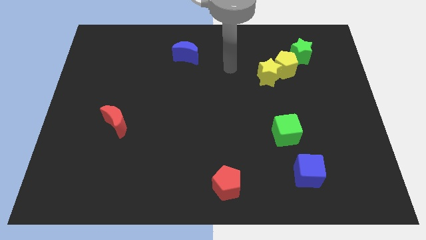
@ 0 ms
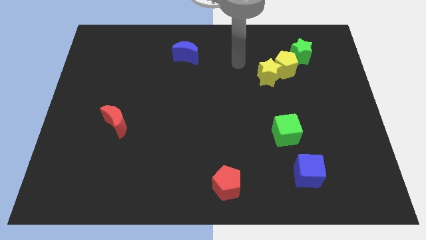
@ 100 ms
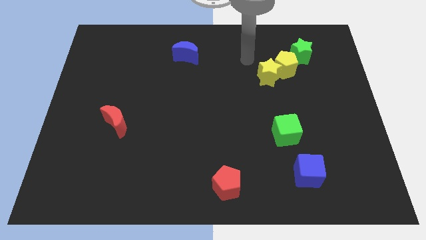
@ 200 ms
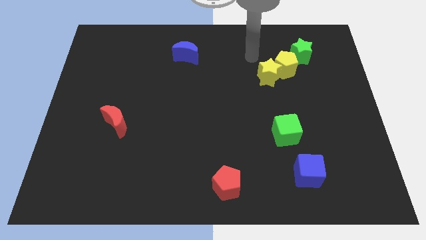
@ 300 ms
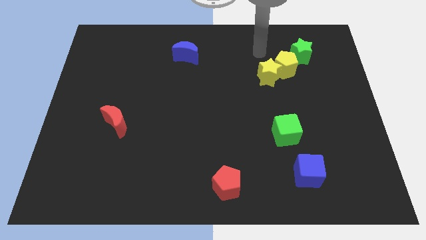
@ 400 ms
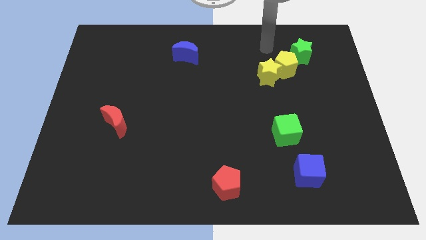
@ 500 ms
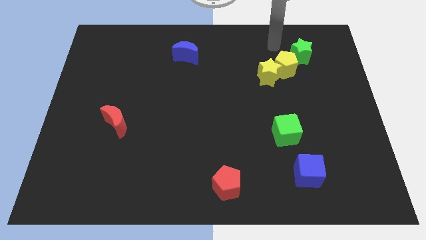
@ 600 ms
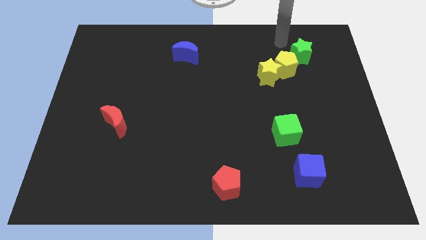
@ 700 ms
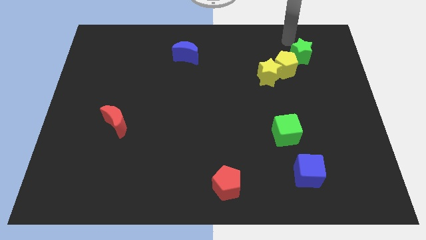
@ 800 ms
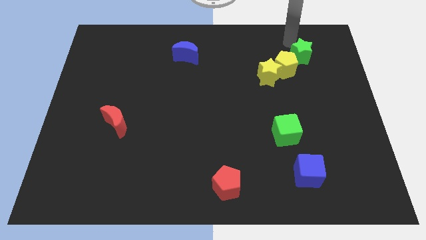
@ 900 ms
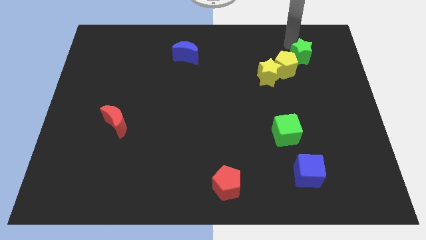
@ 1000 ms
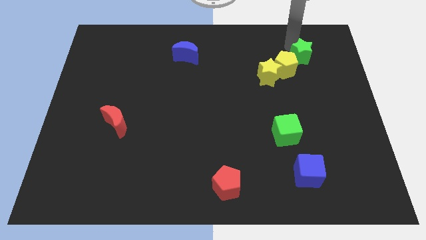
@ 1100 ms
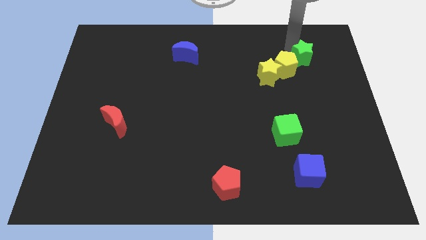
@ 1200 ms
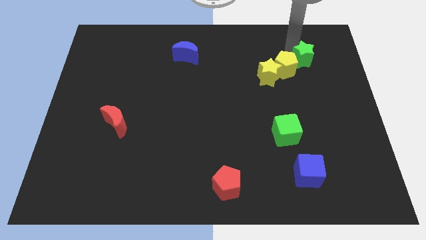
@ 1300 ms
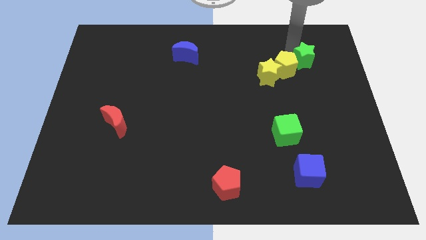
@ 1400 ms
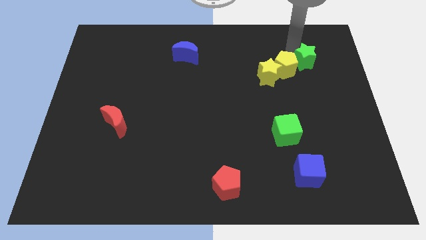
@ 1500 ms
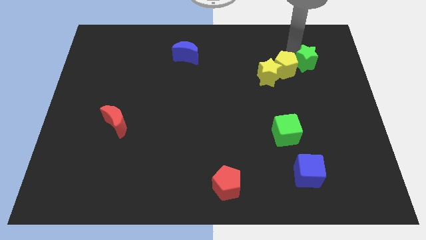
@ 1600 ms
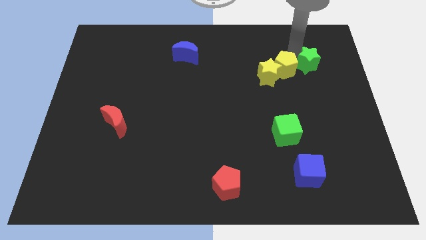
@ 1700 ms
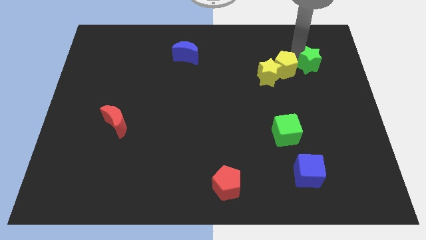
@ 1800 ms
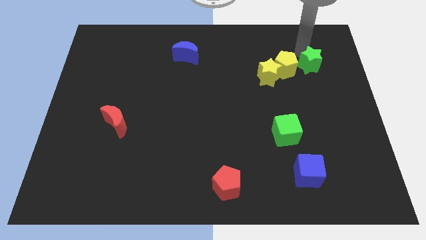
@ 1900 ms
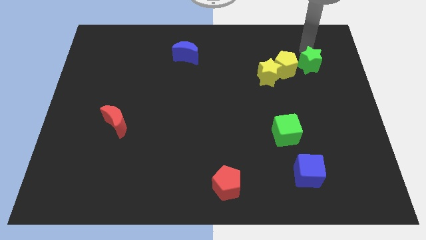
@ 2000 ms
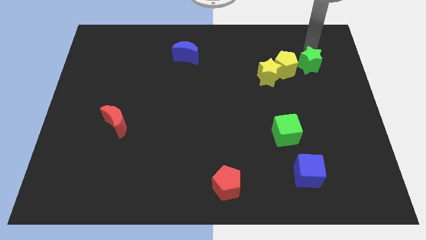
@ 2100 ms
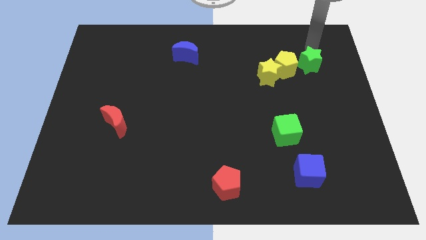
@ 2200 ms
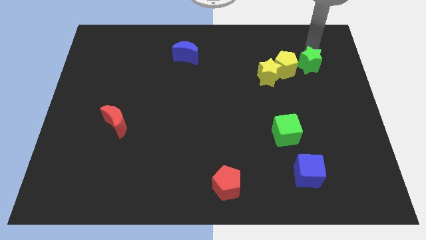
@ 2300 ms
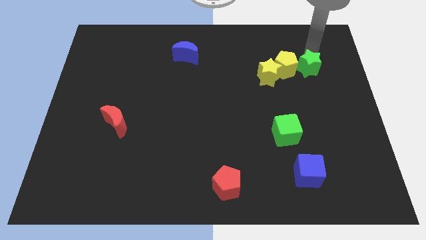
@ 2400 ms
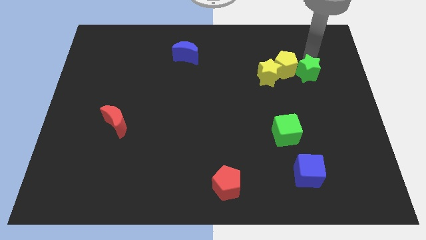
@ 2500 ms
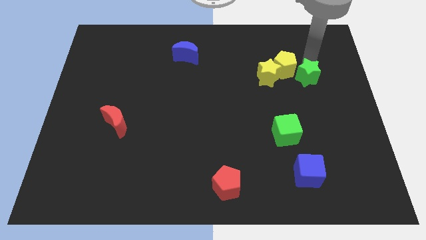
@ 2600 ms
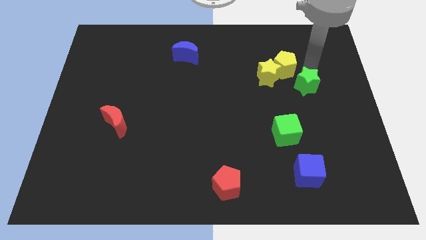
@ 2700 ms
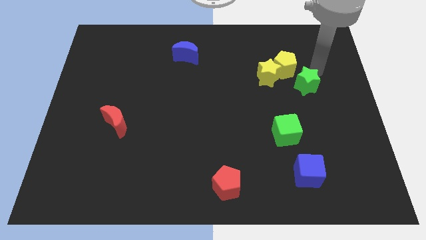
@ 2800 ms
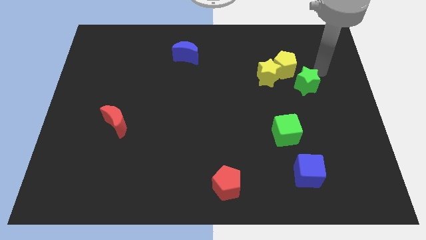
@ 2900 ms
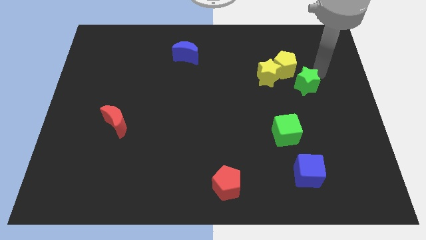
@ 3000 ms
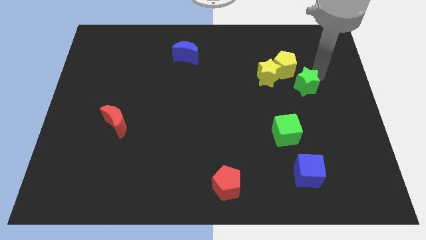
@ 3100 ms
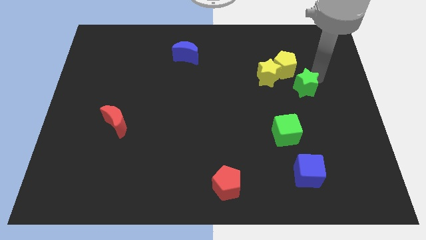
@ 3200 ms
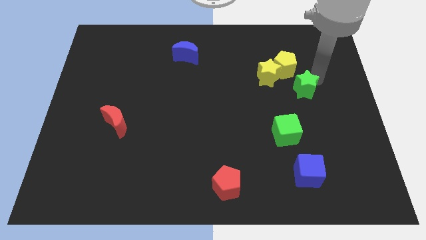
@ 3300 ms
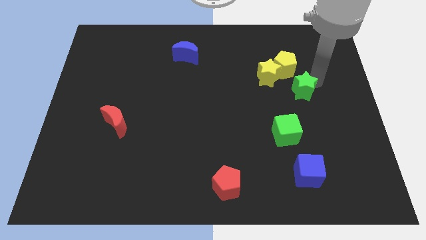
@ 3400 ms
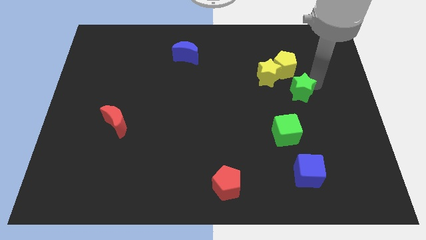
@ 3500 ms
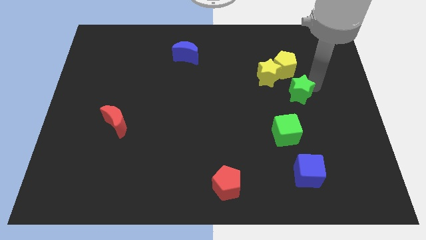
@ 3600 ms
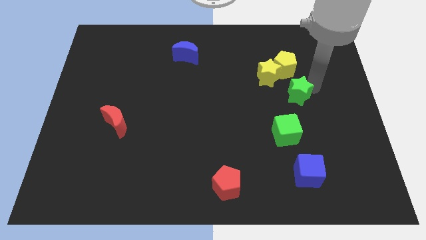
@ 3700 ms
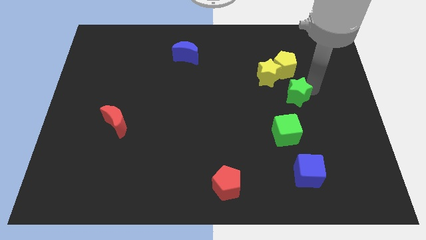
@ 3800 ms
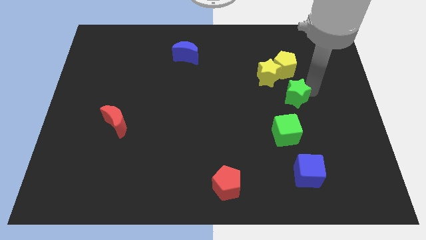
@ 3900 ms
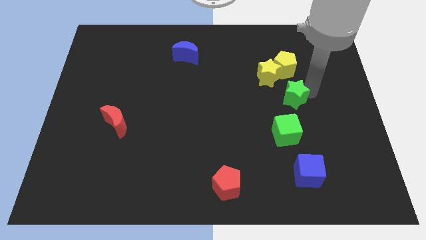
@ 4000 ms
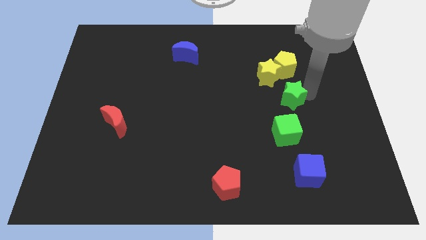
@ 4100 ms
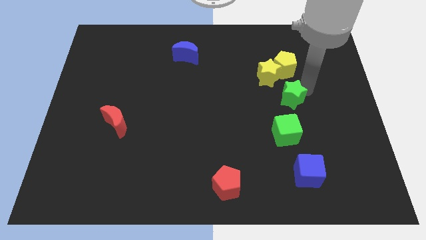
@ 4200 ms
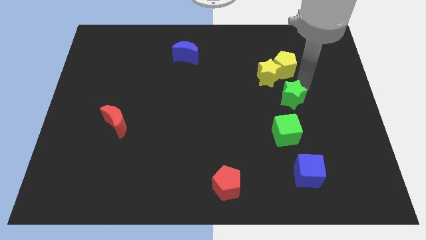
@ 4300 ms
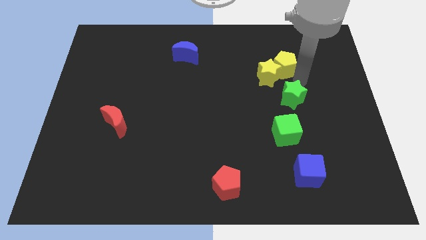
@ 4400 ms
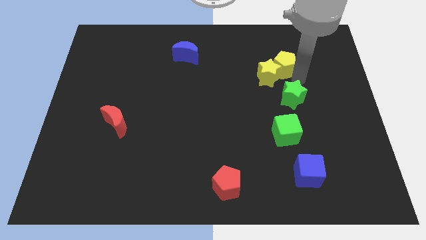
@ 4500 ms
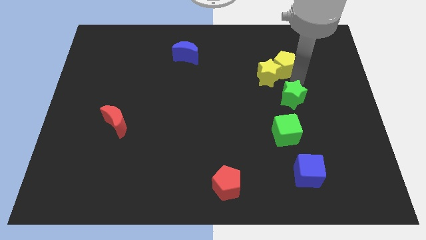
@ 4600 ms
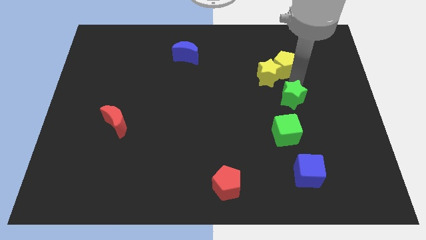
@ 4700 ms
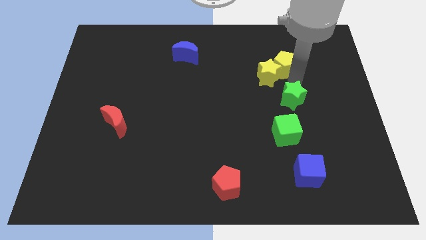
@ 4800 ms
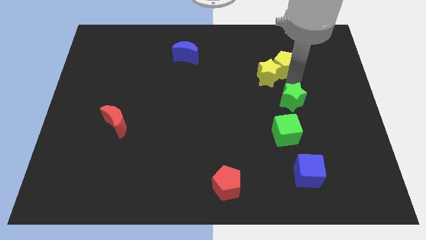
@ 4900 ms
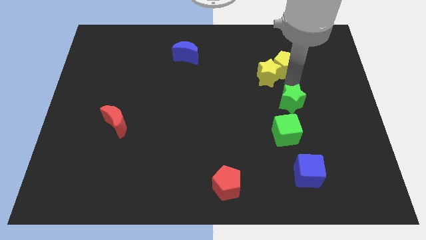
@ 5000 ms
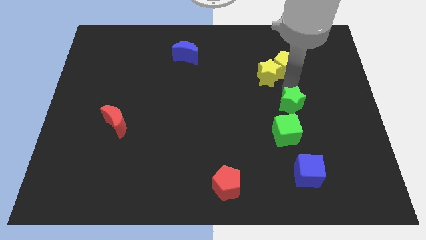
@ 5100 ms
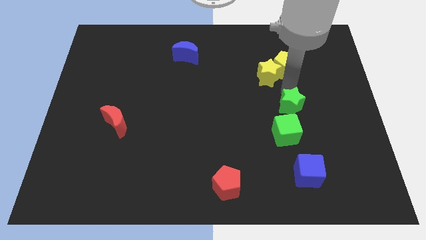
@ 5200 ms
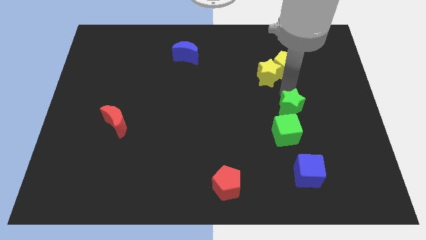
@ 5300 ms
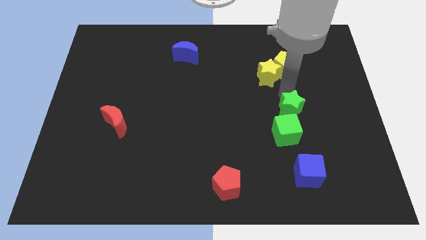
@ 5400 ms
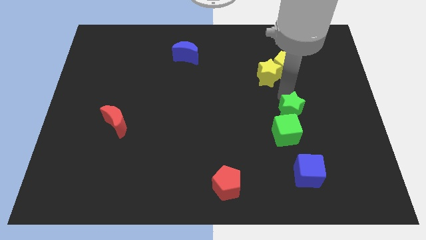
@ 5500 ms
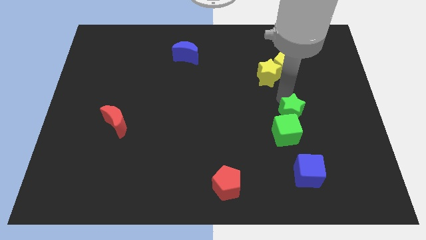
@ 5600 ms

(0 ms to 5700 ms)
put the green star to the green cube

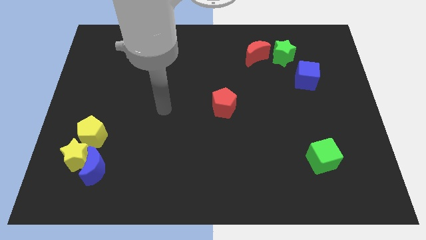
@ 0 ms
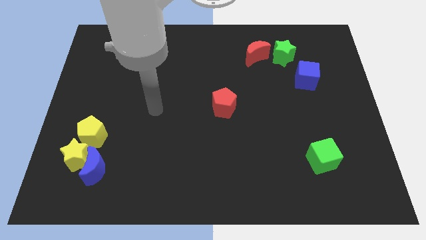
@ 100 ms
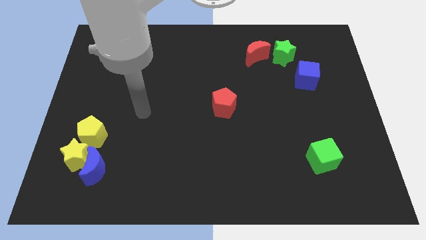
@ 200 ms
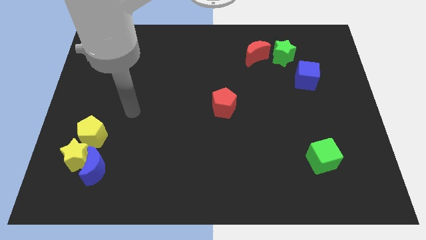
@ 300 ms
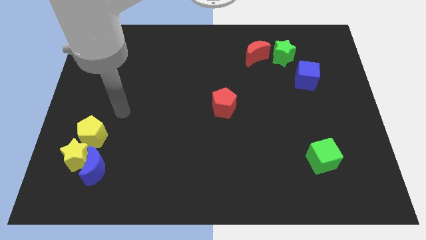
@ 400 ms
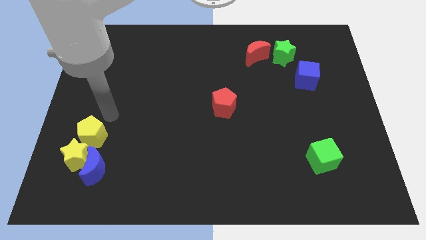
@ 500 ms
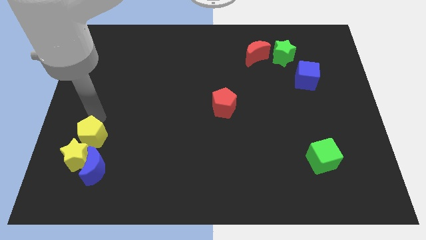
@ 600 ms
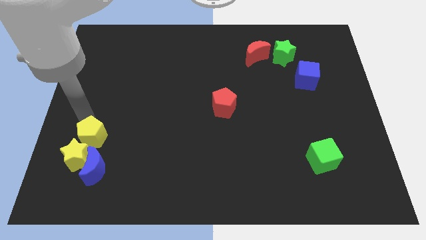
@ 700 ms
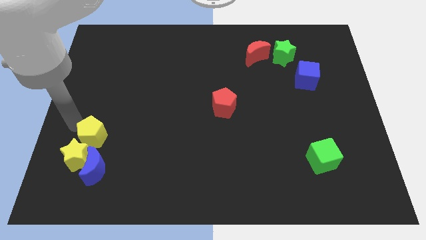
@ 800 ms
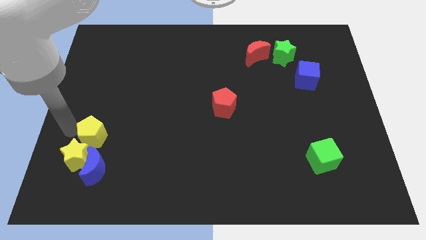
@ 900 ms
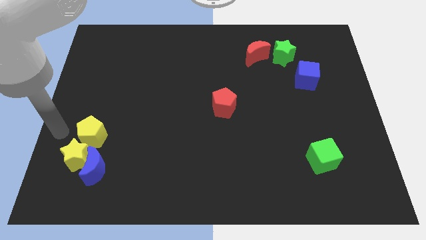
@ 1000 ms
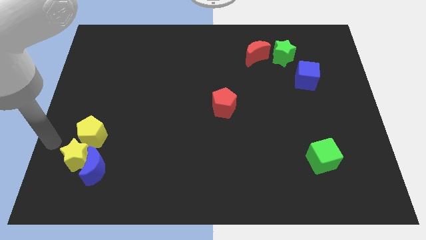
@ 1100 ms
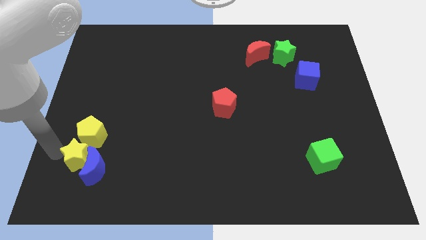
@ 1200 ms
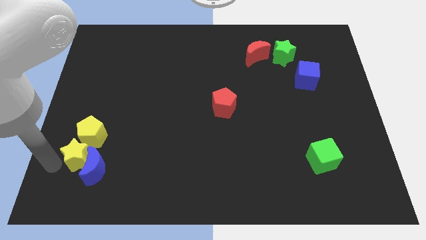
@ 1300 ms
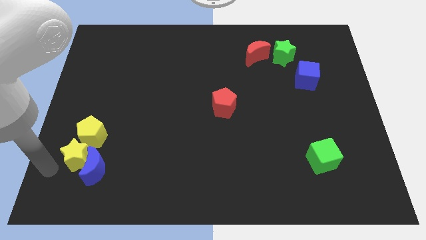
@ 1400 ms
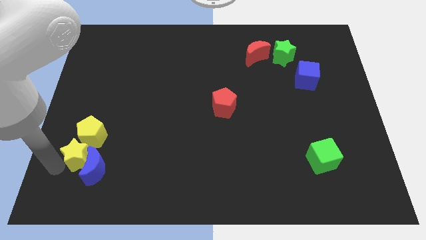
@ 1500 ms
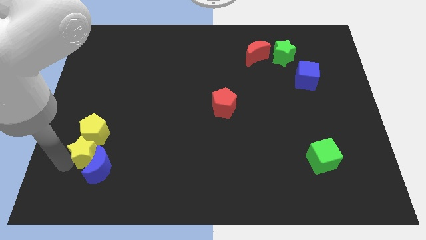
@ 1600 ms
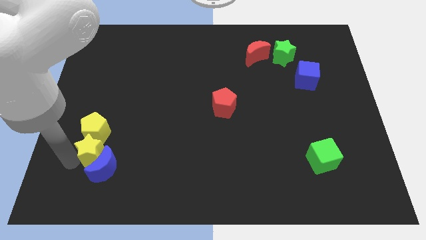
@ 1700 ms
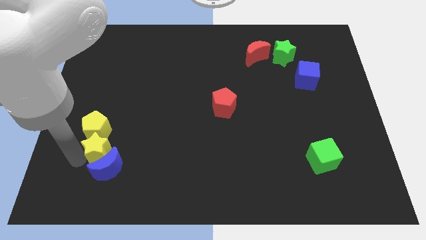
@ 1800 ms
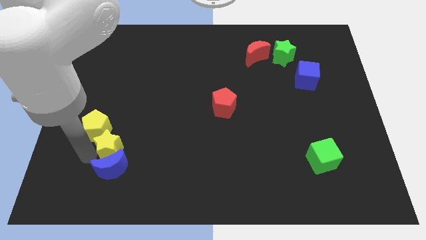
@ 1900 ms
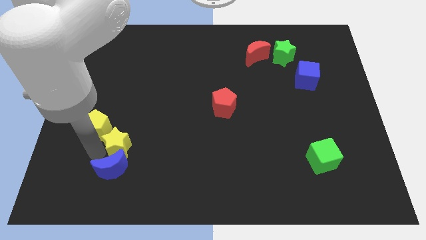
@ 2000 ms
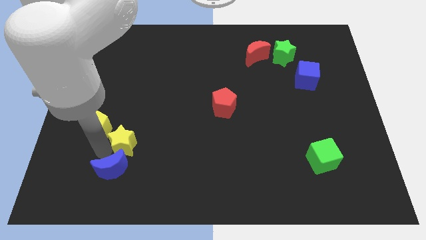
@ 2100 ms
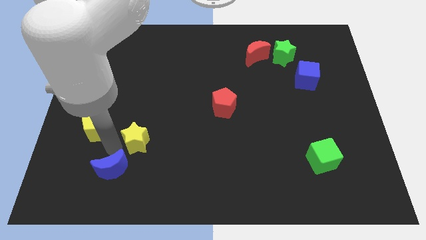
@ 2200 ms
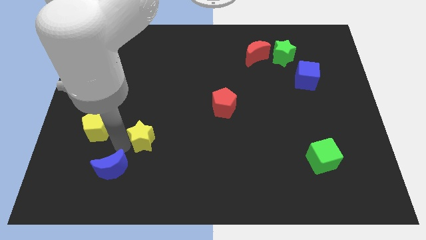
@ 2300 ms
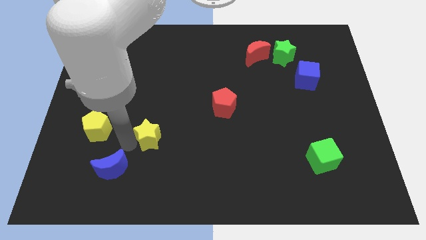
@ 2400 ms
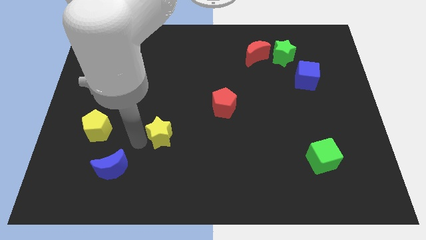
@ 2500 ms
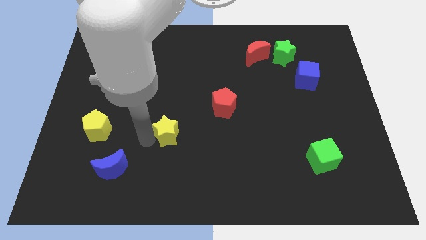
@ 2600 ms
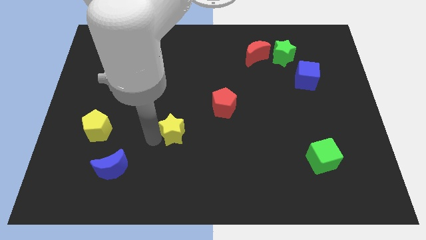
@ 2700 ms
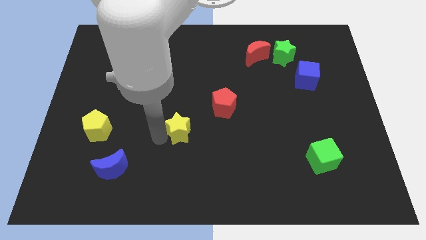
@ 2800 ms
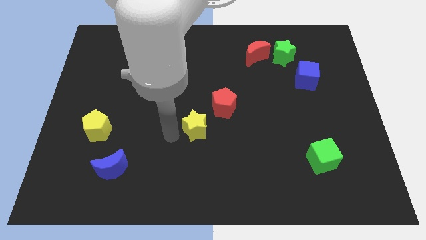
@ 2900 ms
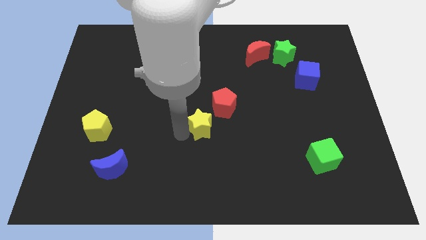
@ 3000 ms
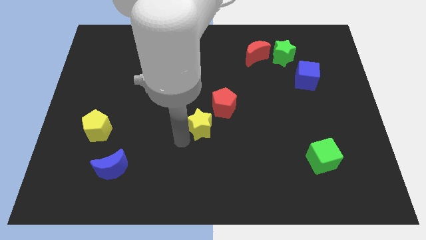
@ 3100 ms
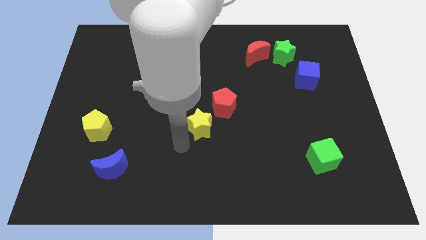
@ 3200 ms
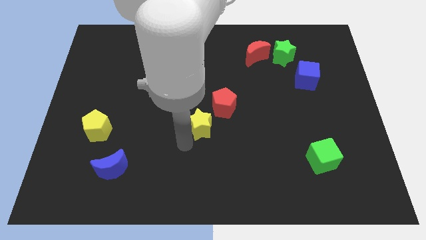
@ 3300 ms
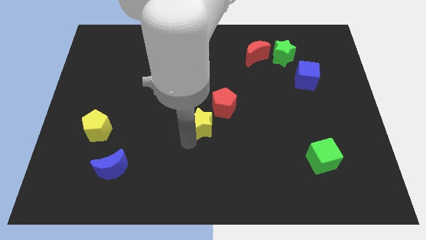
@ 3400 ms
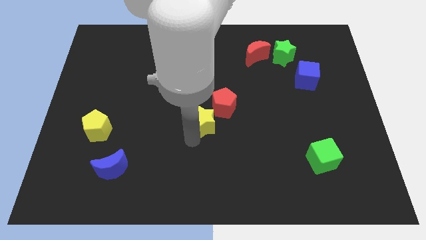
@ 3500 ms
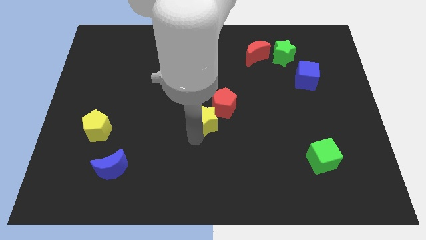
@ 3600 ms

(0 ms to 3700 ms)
put the yellow star next to the red pentagon
